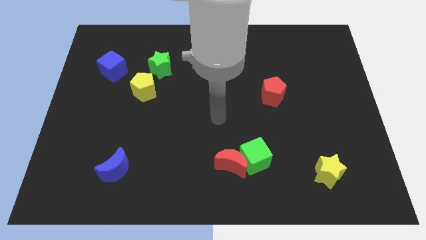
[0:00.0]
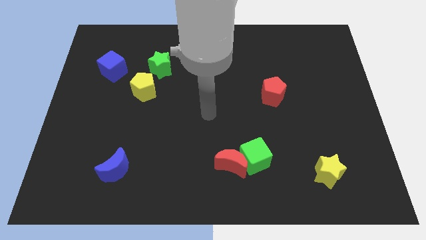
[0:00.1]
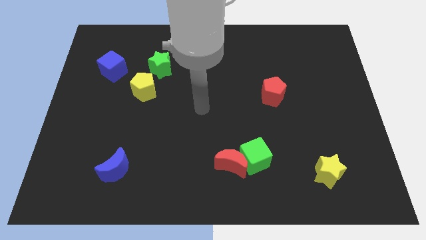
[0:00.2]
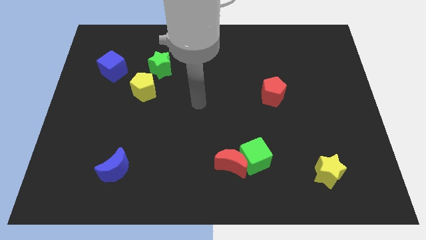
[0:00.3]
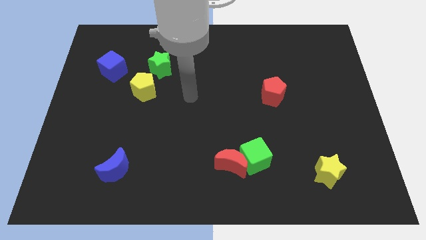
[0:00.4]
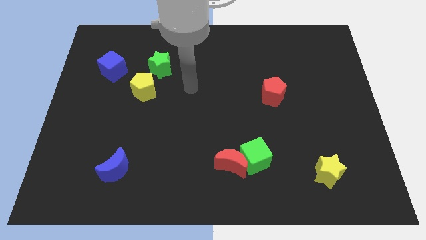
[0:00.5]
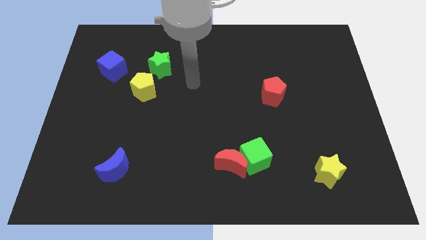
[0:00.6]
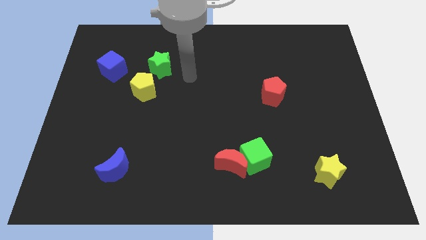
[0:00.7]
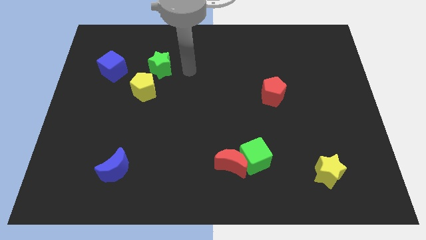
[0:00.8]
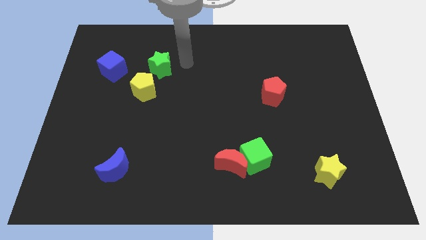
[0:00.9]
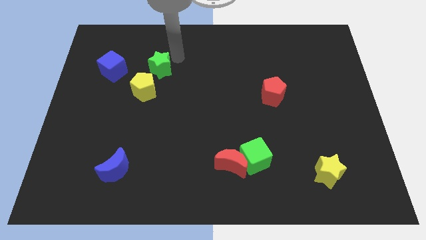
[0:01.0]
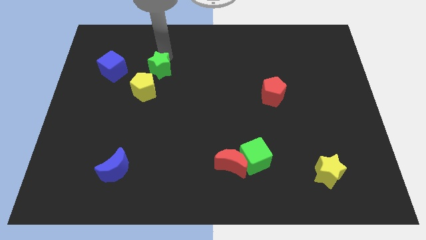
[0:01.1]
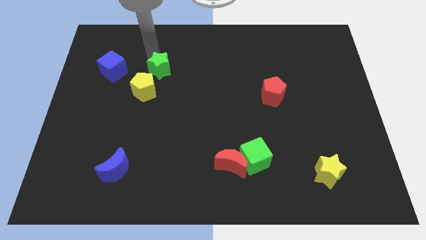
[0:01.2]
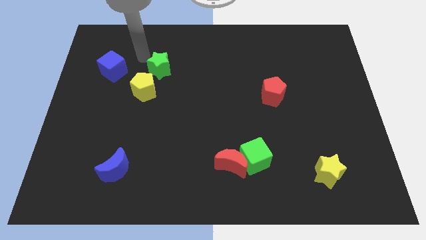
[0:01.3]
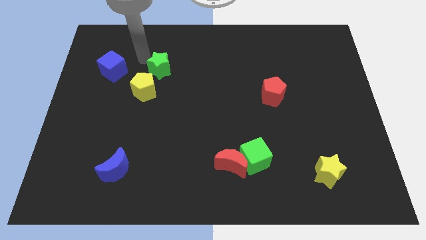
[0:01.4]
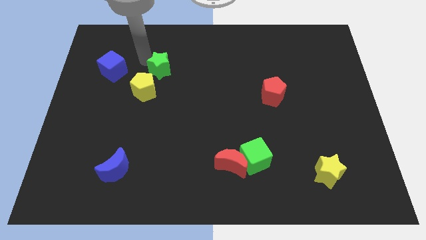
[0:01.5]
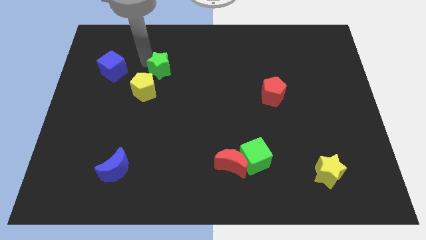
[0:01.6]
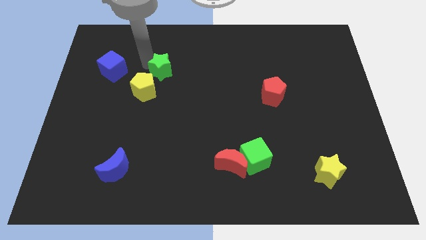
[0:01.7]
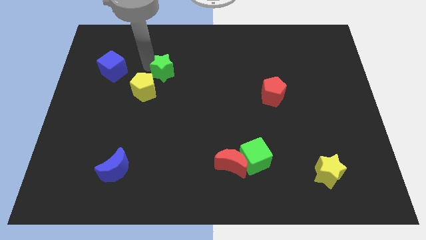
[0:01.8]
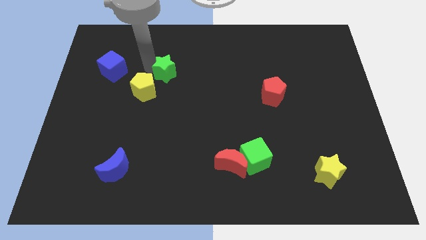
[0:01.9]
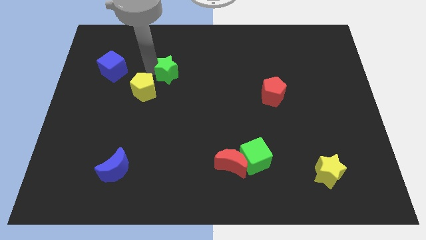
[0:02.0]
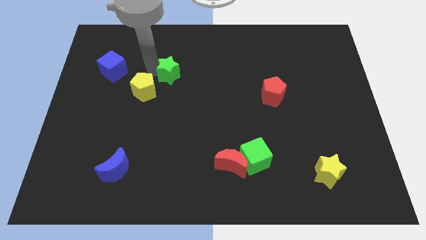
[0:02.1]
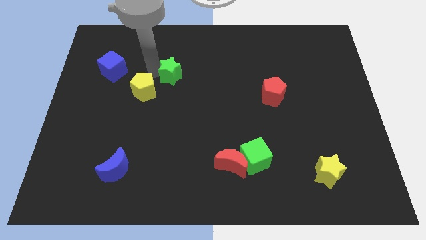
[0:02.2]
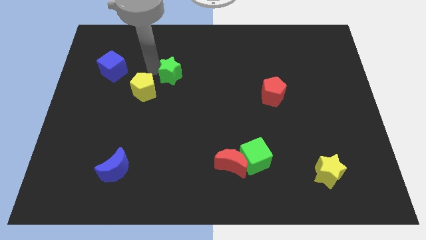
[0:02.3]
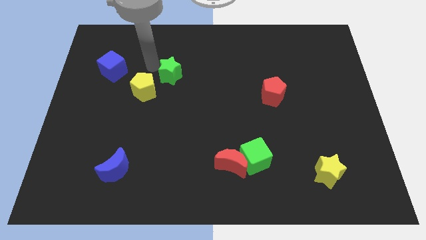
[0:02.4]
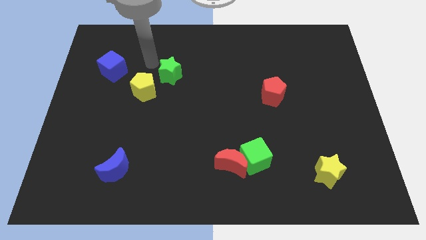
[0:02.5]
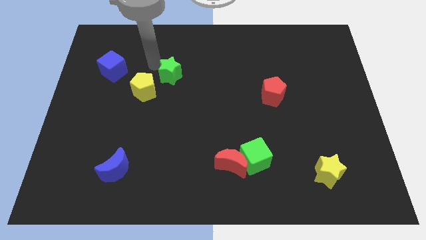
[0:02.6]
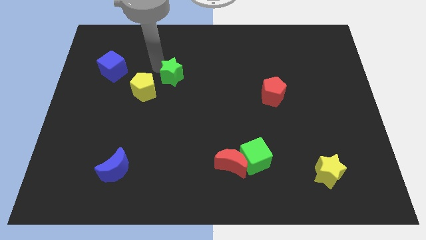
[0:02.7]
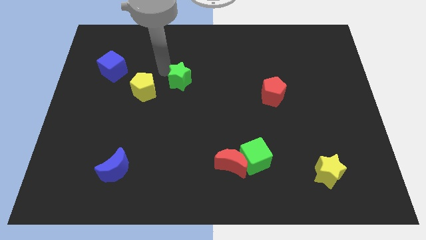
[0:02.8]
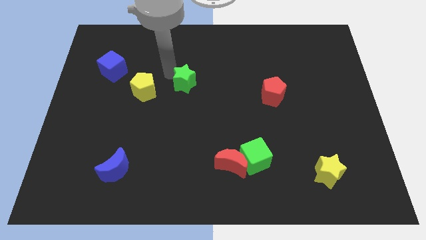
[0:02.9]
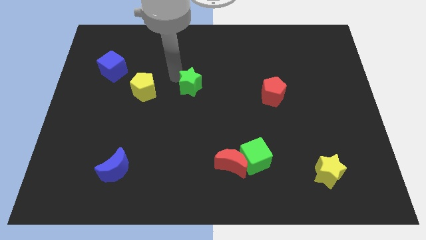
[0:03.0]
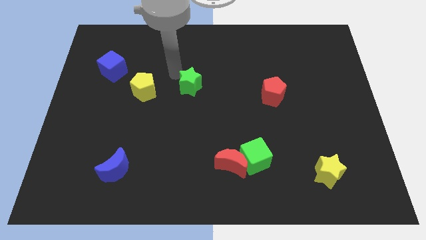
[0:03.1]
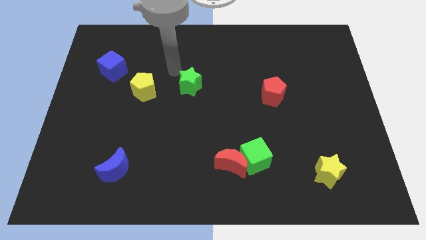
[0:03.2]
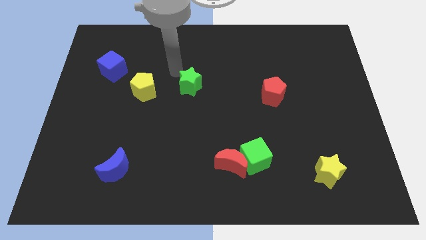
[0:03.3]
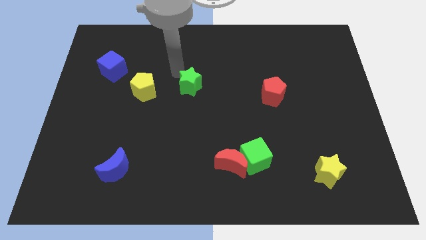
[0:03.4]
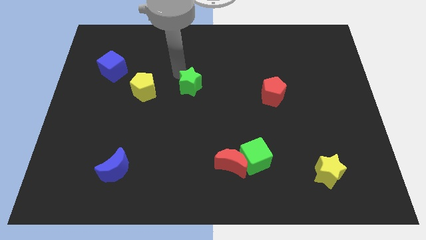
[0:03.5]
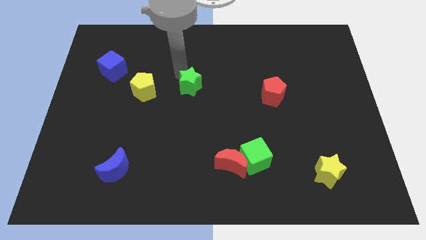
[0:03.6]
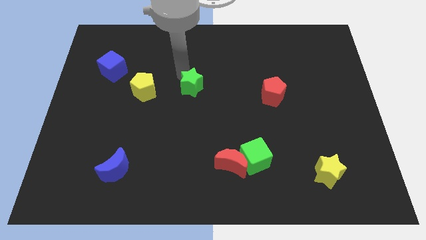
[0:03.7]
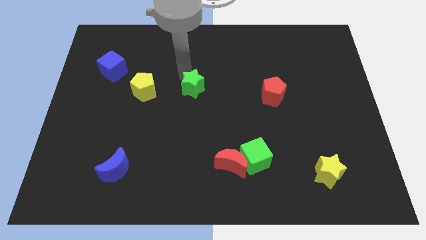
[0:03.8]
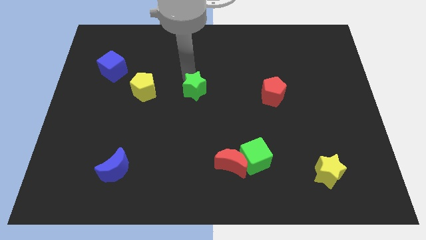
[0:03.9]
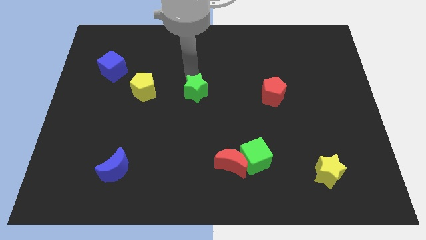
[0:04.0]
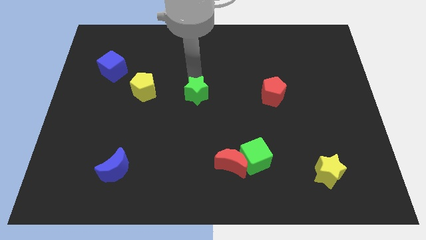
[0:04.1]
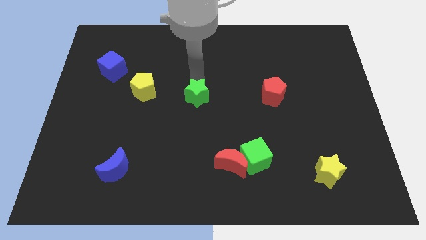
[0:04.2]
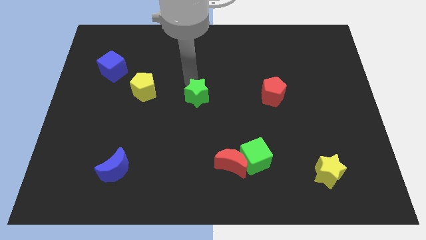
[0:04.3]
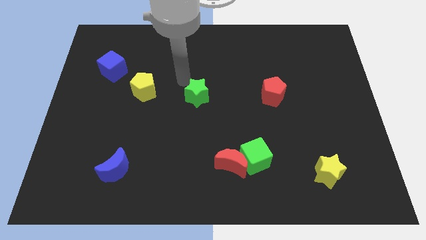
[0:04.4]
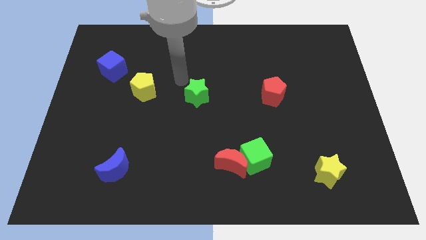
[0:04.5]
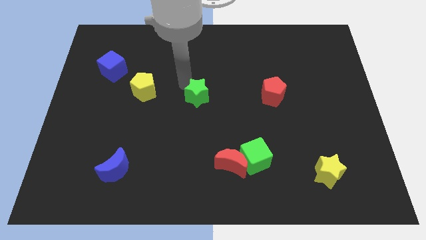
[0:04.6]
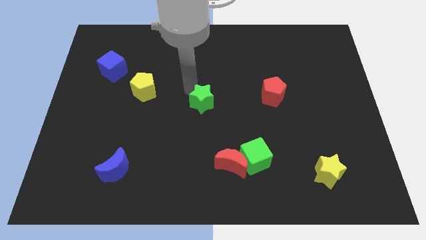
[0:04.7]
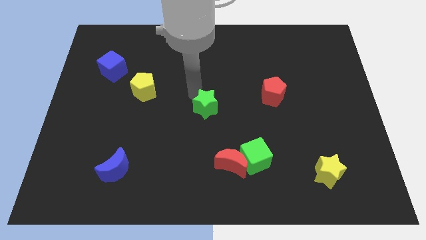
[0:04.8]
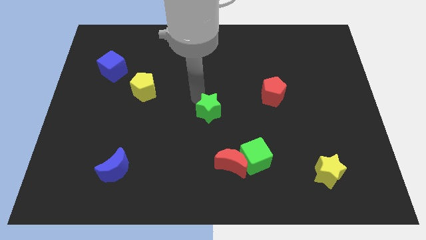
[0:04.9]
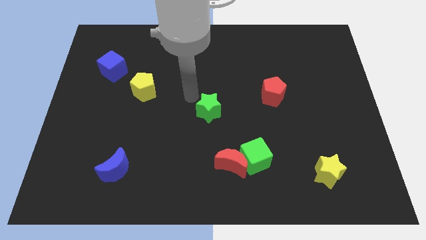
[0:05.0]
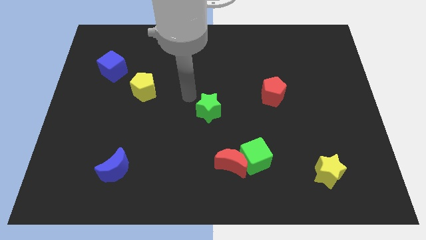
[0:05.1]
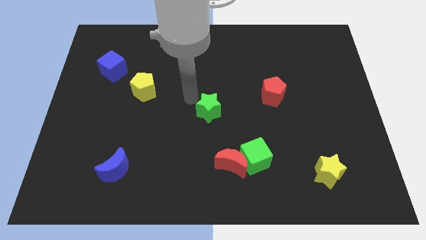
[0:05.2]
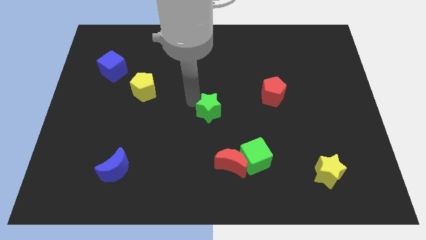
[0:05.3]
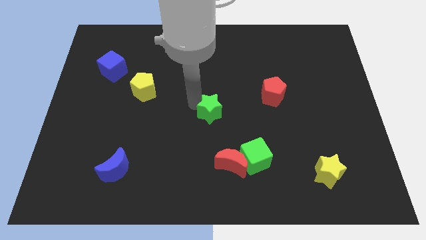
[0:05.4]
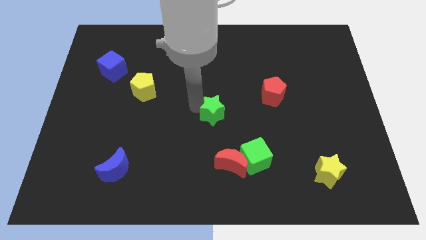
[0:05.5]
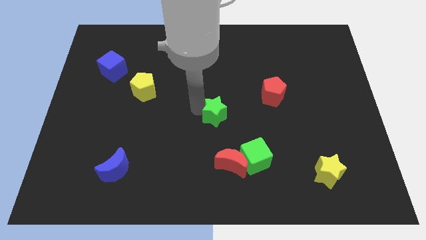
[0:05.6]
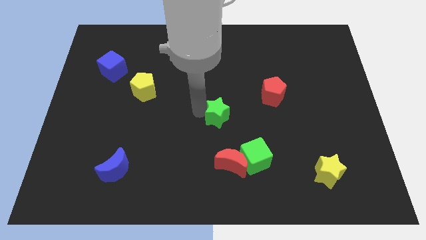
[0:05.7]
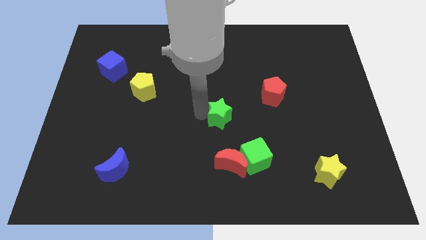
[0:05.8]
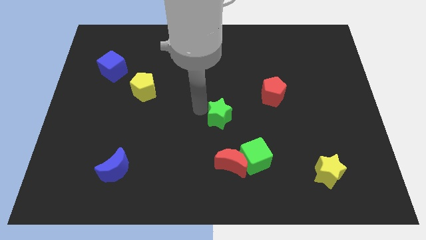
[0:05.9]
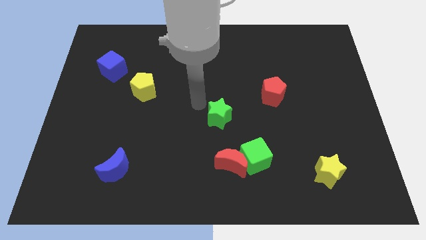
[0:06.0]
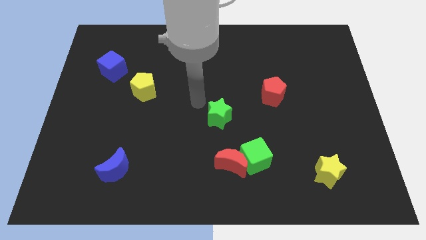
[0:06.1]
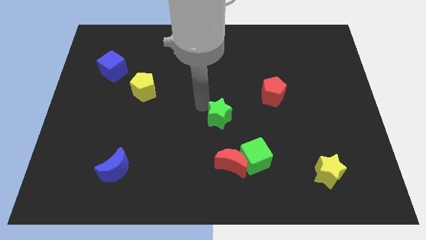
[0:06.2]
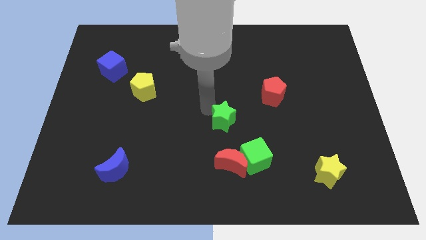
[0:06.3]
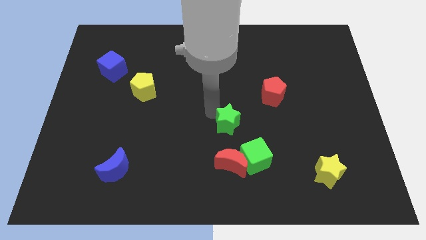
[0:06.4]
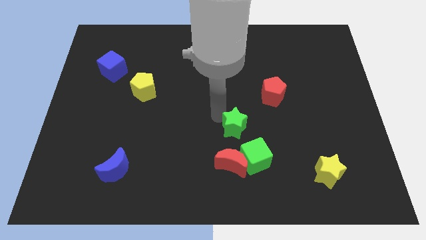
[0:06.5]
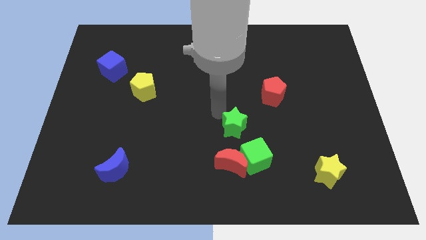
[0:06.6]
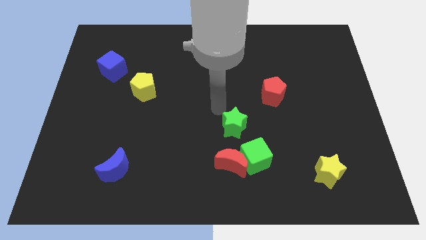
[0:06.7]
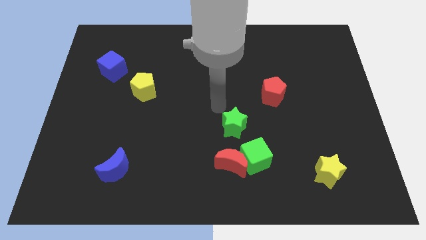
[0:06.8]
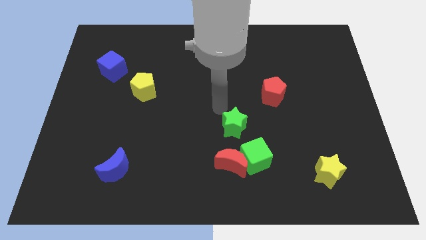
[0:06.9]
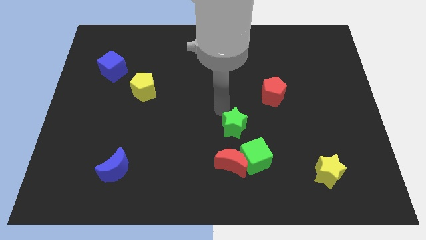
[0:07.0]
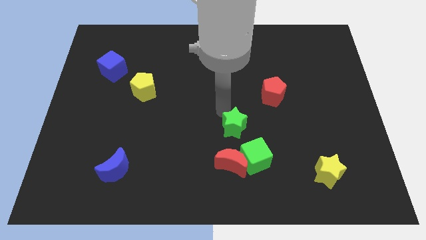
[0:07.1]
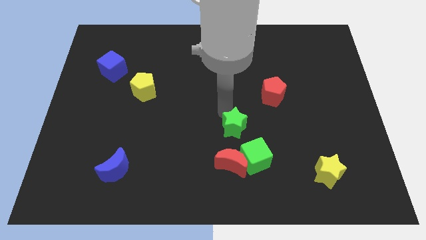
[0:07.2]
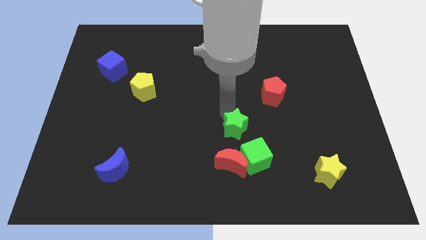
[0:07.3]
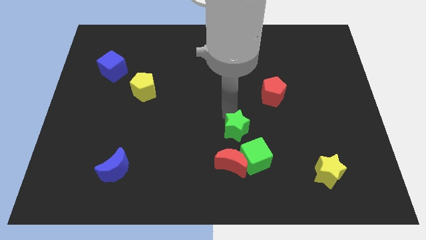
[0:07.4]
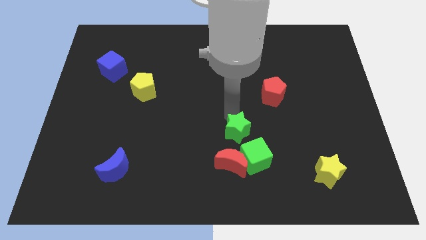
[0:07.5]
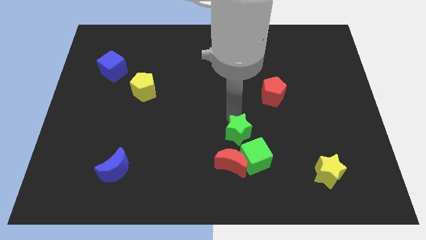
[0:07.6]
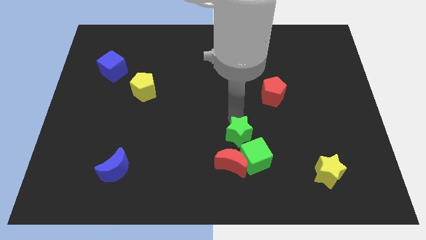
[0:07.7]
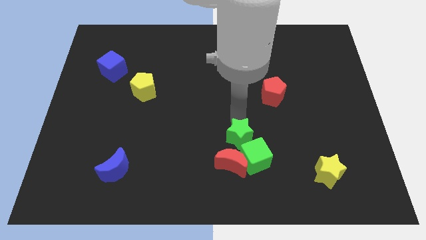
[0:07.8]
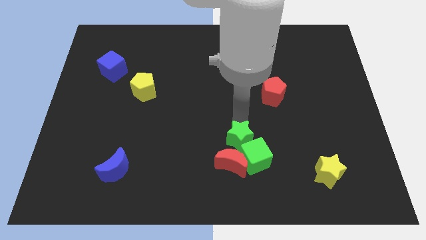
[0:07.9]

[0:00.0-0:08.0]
push the green star next to the green cube
